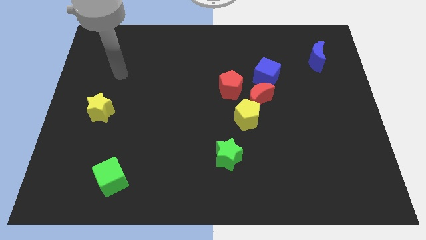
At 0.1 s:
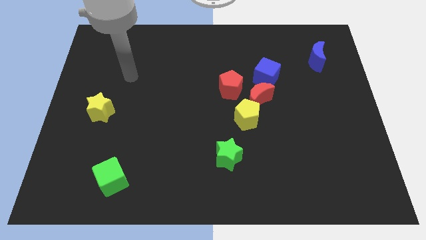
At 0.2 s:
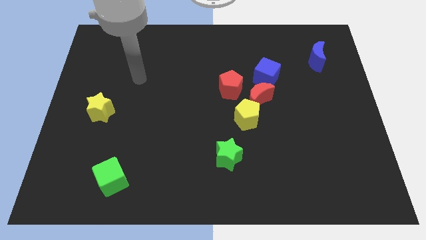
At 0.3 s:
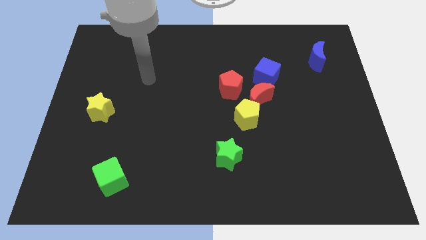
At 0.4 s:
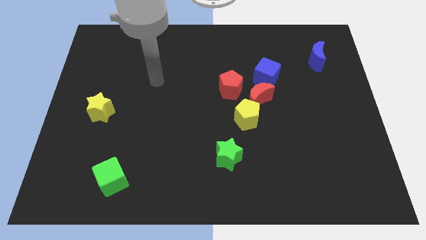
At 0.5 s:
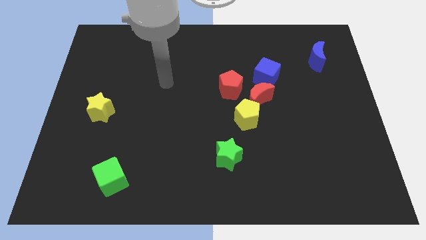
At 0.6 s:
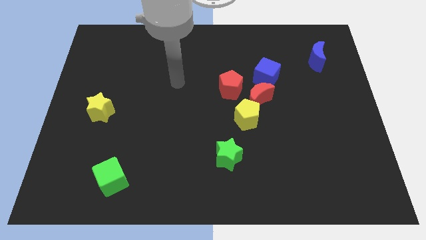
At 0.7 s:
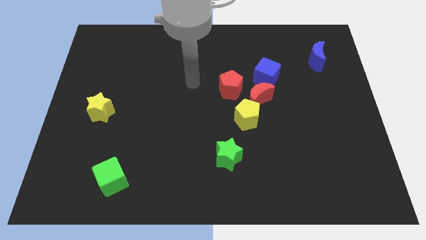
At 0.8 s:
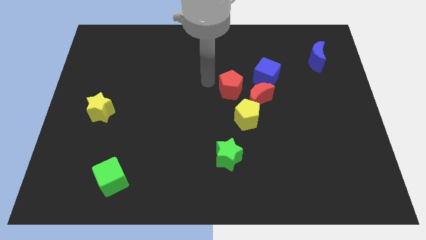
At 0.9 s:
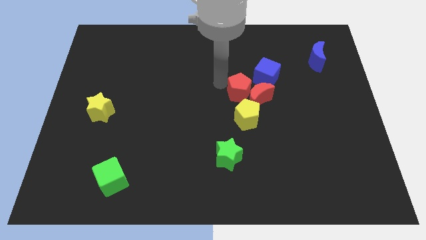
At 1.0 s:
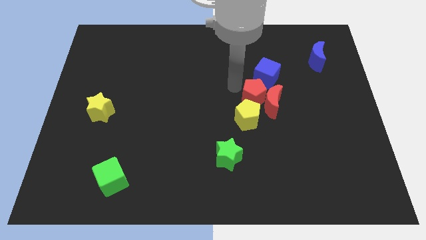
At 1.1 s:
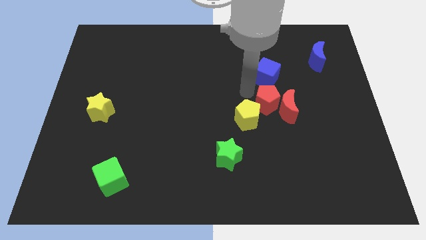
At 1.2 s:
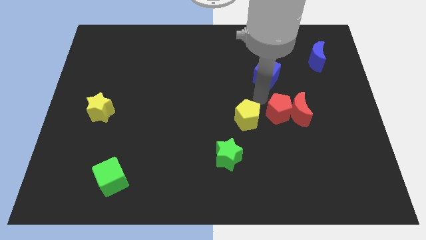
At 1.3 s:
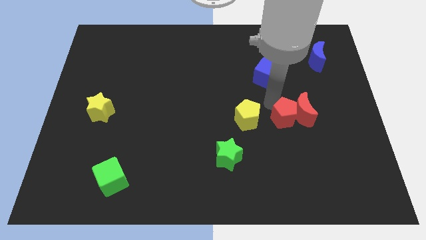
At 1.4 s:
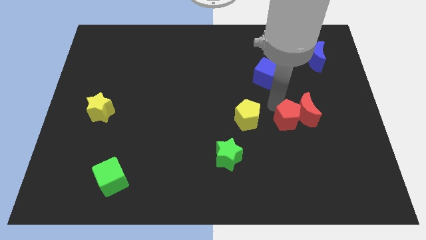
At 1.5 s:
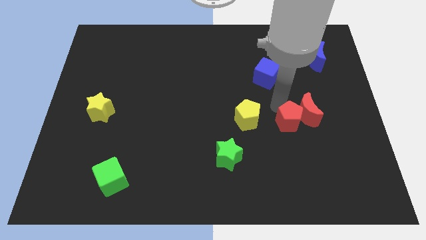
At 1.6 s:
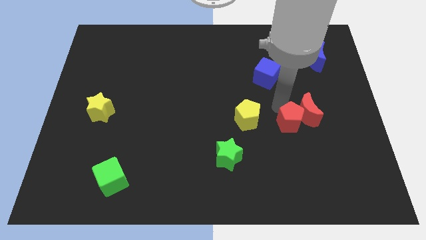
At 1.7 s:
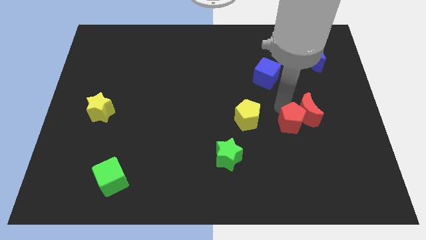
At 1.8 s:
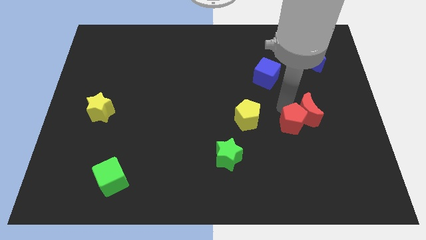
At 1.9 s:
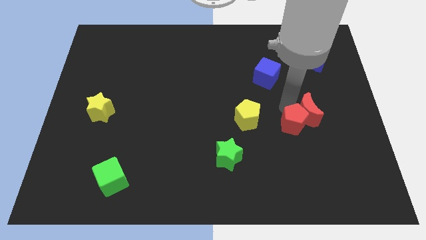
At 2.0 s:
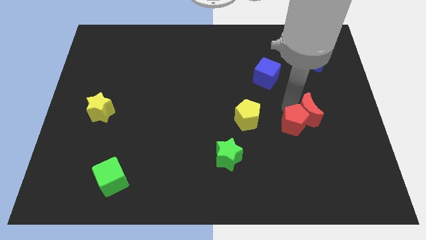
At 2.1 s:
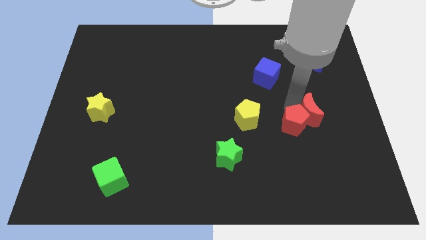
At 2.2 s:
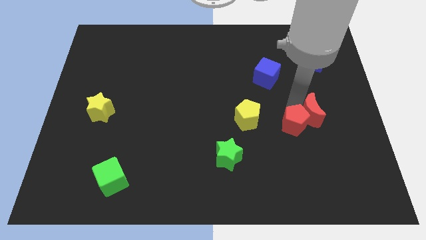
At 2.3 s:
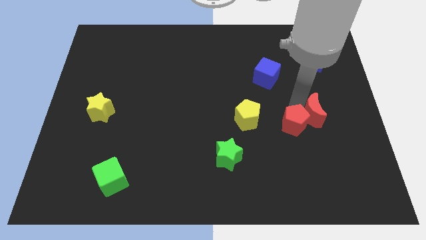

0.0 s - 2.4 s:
separate the red moon from the yellow pentagon, red pentagon, and blue cube

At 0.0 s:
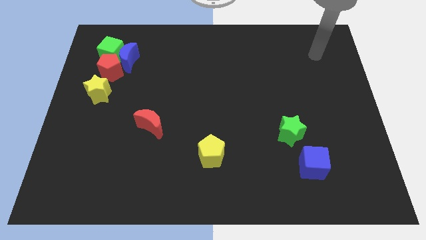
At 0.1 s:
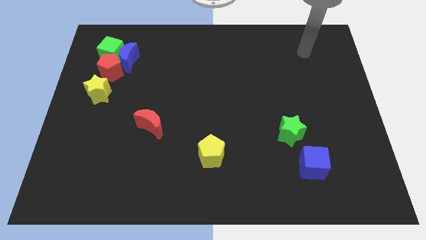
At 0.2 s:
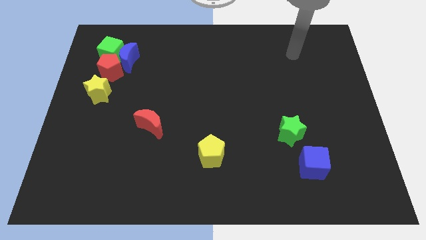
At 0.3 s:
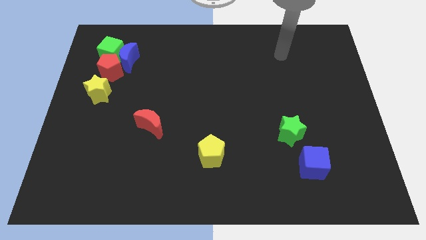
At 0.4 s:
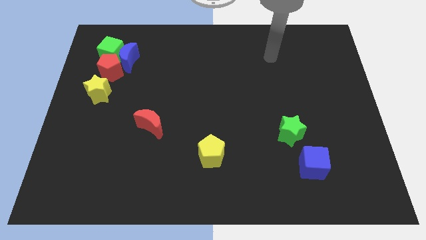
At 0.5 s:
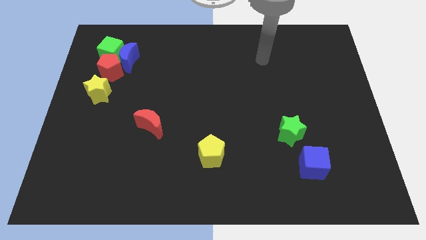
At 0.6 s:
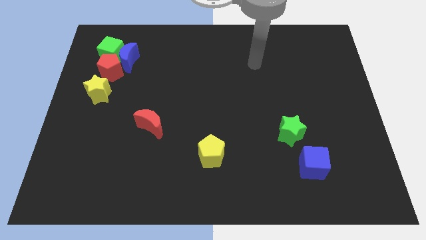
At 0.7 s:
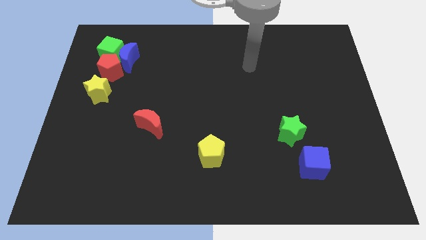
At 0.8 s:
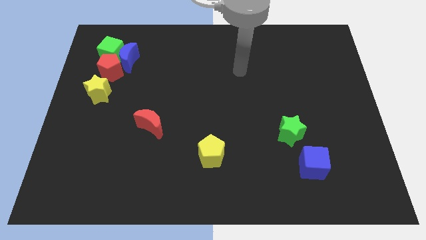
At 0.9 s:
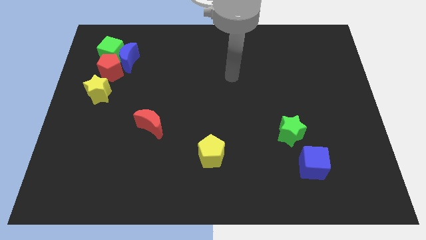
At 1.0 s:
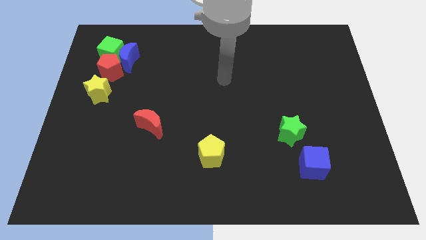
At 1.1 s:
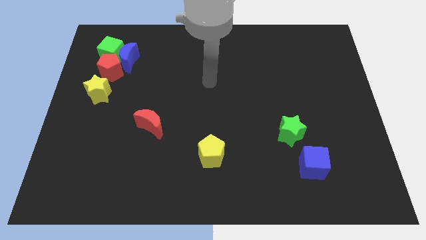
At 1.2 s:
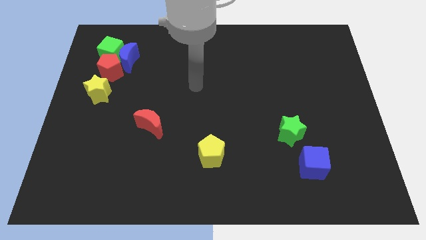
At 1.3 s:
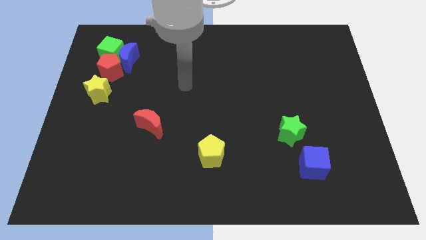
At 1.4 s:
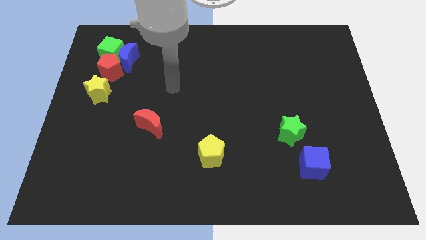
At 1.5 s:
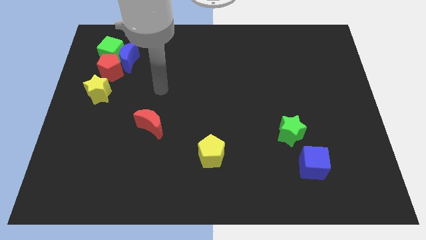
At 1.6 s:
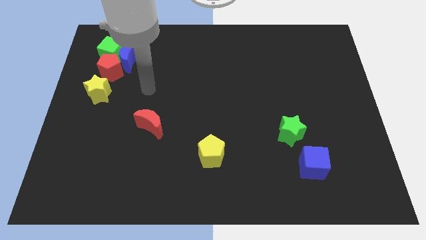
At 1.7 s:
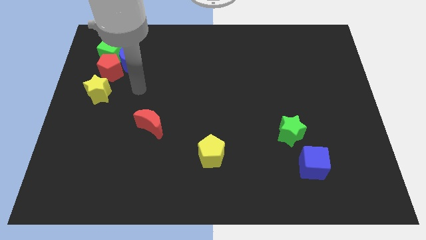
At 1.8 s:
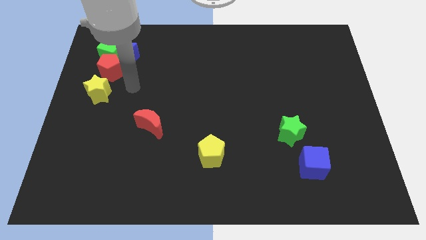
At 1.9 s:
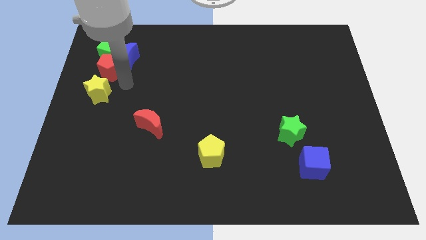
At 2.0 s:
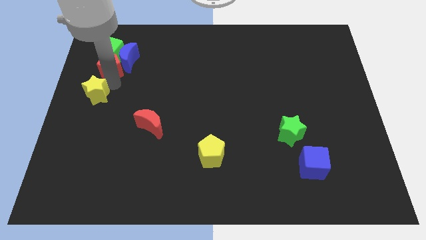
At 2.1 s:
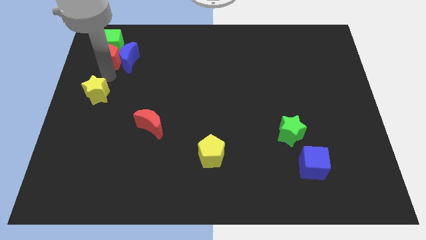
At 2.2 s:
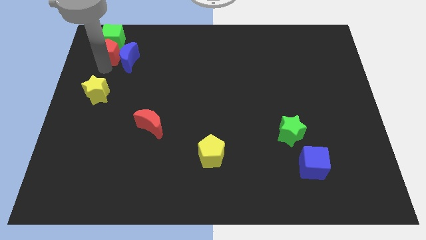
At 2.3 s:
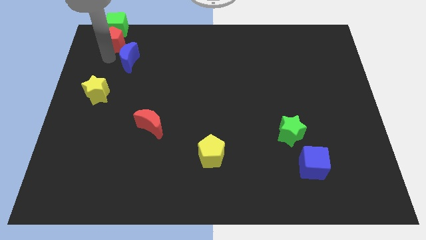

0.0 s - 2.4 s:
pull the blue moon apart from the green cube and red pentagon

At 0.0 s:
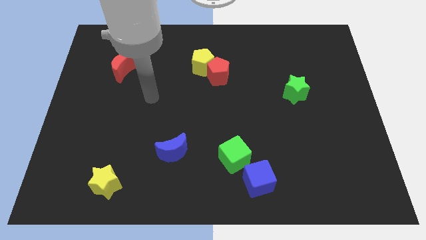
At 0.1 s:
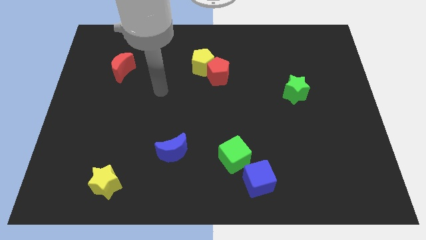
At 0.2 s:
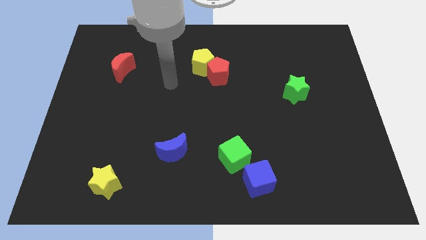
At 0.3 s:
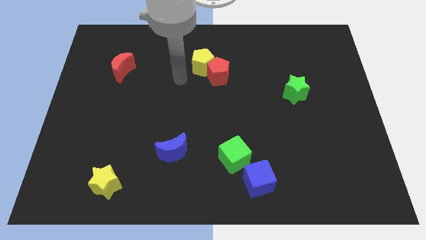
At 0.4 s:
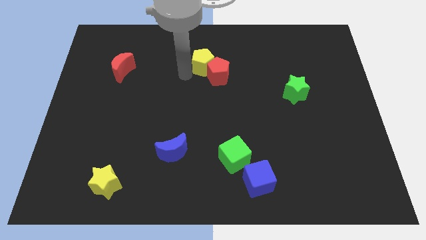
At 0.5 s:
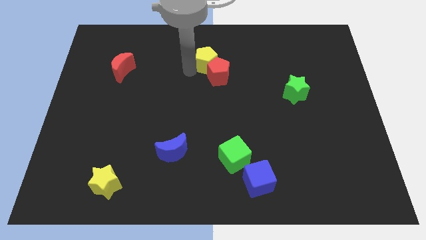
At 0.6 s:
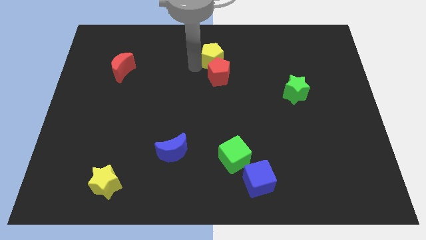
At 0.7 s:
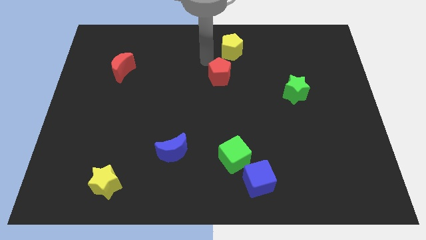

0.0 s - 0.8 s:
move the red pentagon away from the yellow pentagon

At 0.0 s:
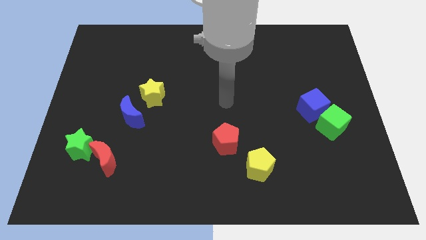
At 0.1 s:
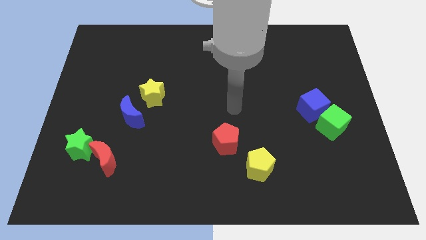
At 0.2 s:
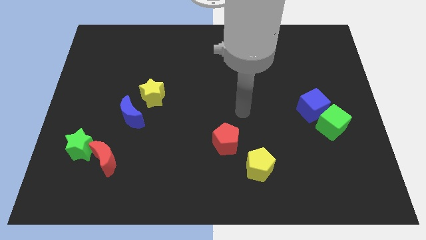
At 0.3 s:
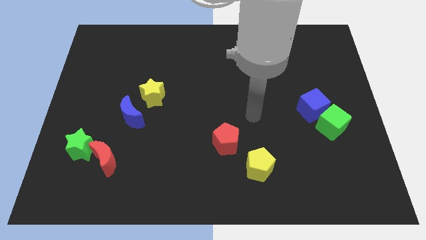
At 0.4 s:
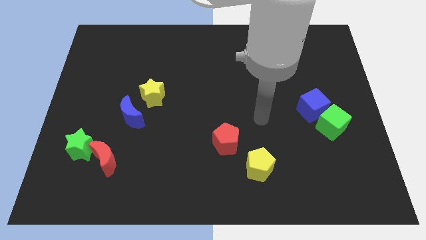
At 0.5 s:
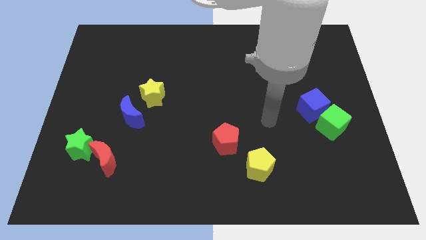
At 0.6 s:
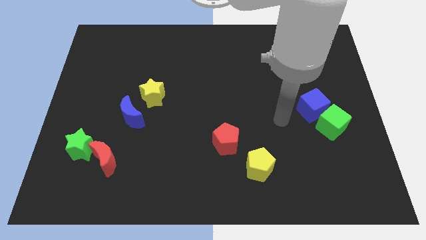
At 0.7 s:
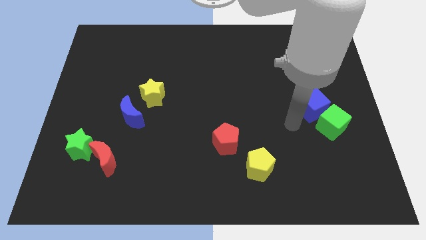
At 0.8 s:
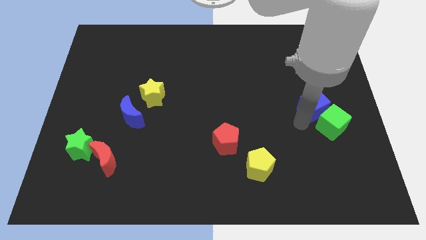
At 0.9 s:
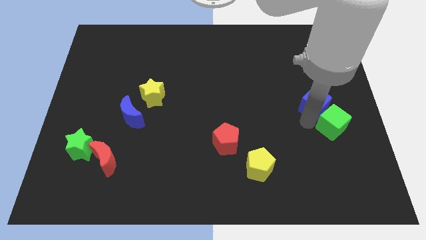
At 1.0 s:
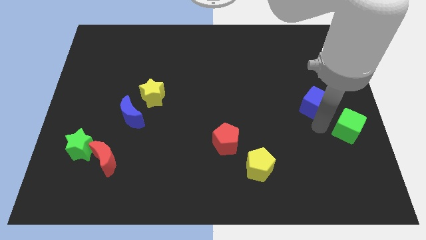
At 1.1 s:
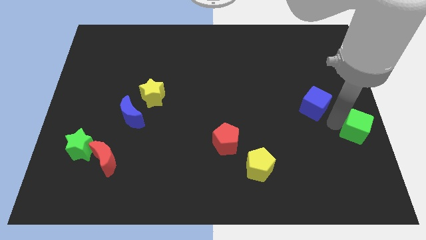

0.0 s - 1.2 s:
move the blue cube away from the green cube

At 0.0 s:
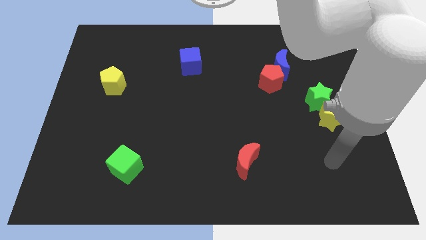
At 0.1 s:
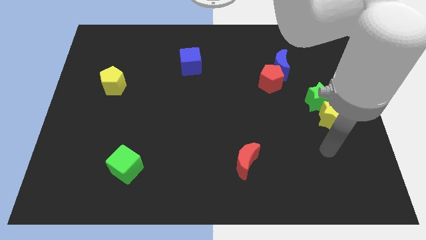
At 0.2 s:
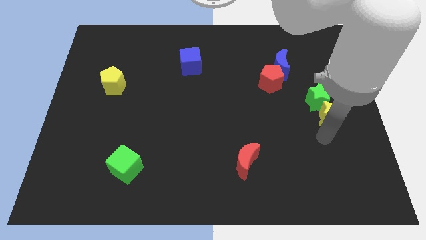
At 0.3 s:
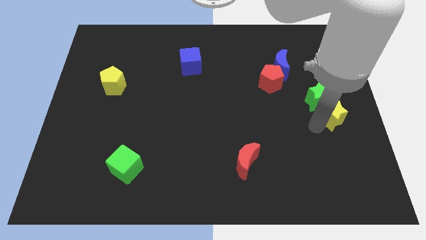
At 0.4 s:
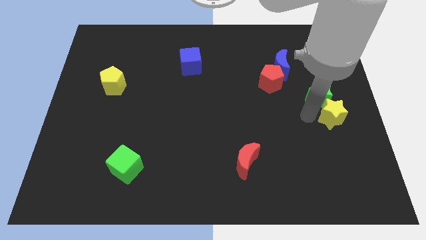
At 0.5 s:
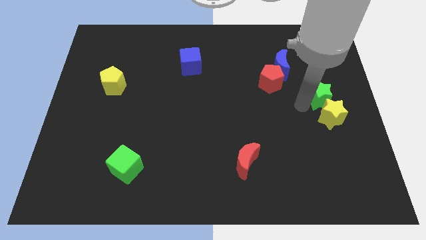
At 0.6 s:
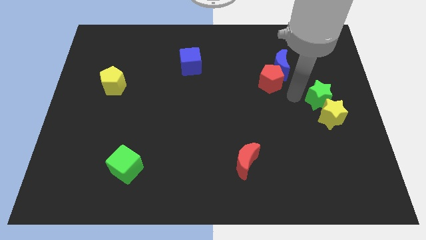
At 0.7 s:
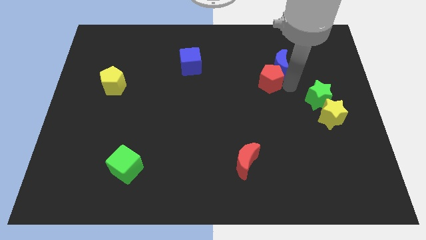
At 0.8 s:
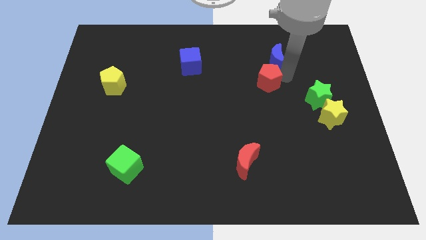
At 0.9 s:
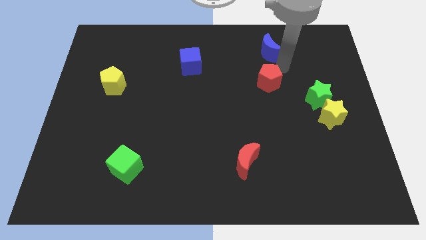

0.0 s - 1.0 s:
separate the red pentagon from the blue moon

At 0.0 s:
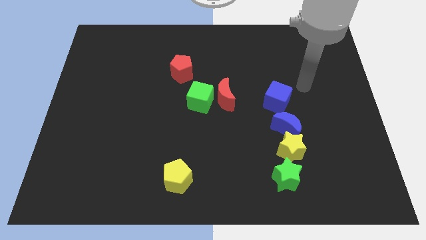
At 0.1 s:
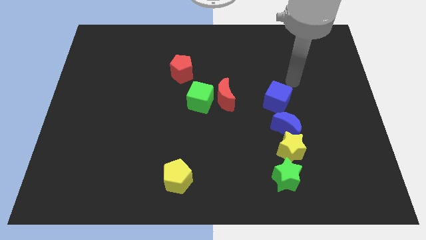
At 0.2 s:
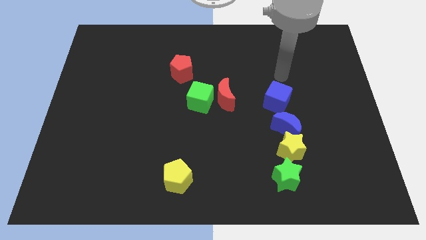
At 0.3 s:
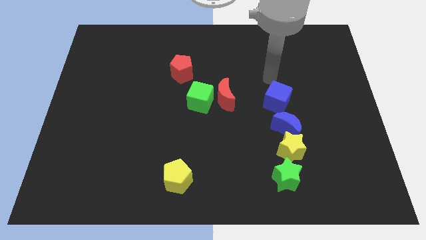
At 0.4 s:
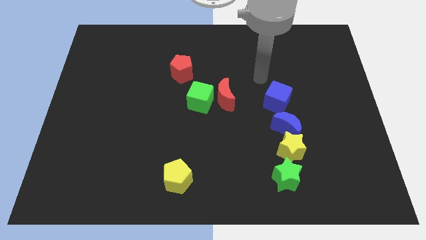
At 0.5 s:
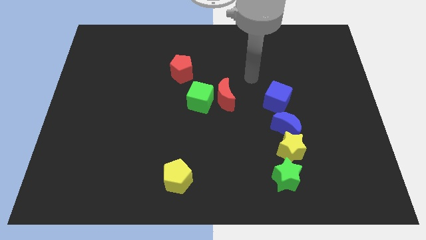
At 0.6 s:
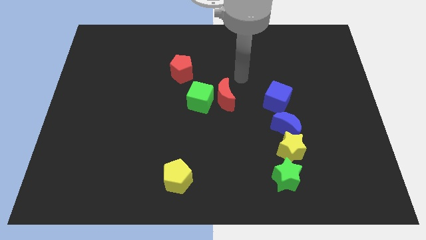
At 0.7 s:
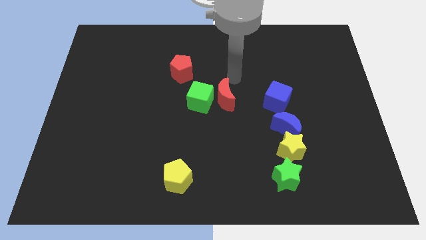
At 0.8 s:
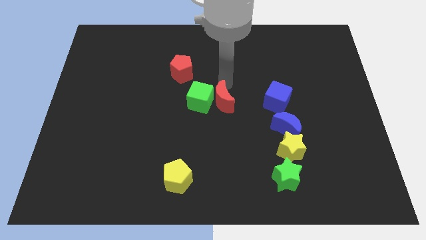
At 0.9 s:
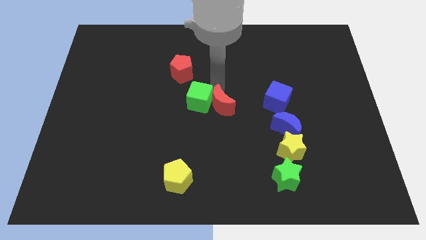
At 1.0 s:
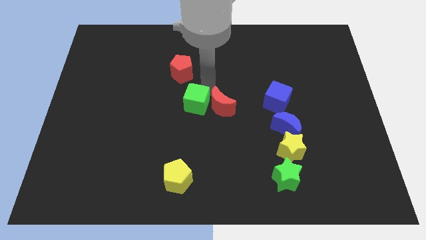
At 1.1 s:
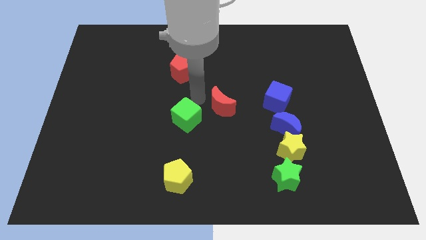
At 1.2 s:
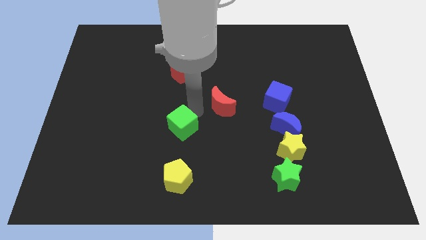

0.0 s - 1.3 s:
pull the red moon apart from the green cube

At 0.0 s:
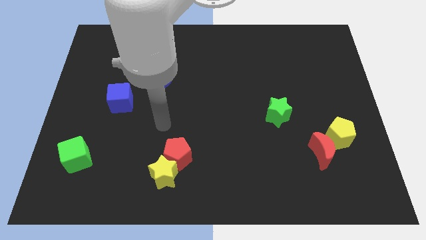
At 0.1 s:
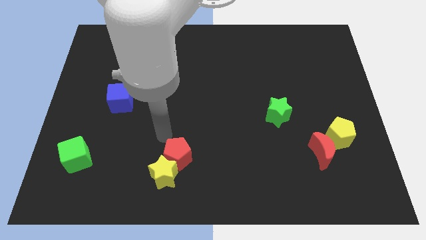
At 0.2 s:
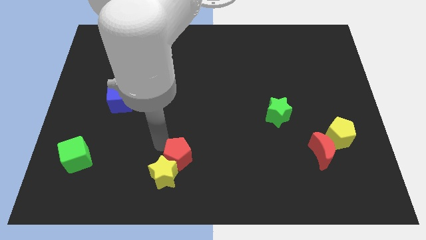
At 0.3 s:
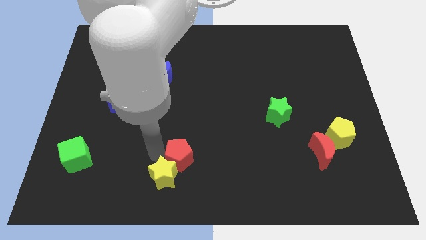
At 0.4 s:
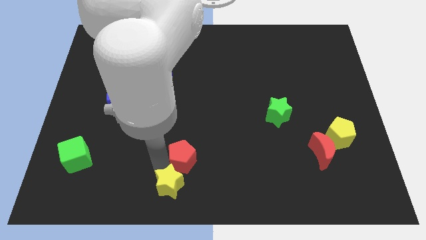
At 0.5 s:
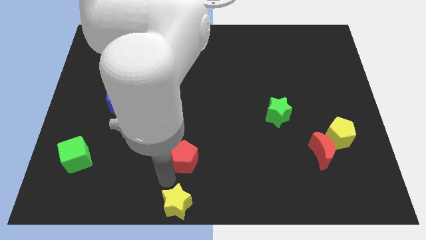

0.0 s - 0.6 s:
pull the red pentagon apart from the yellow star
